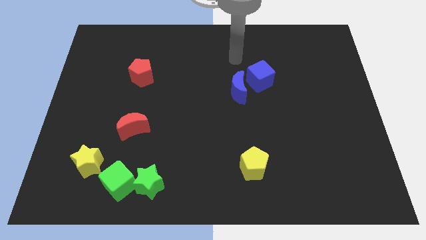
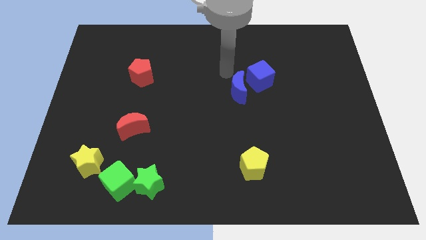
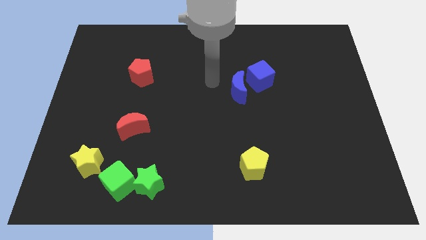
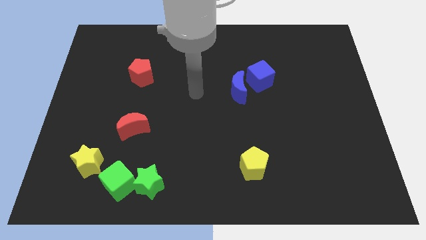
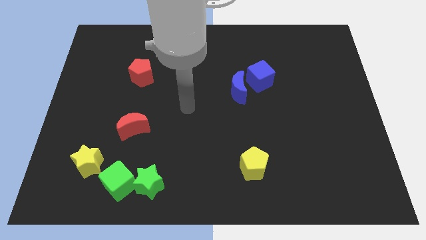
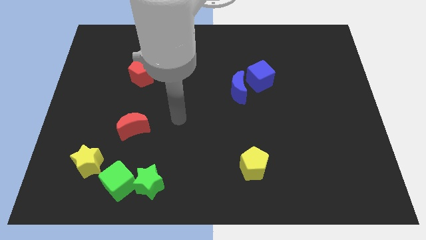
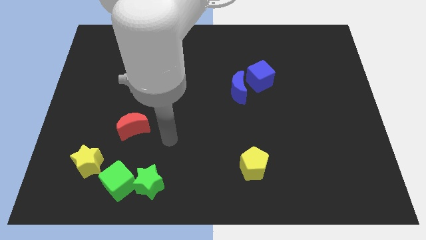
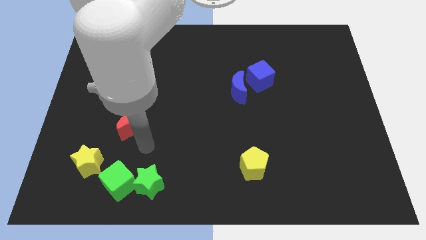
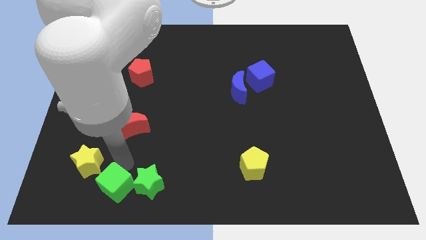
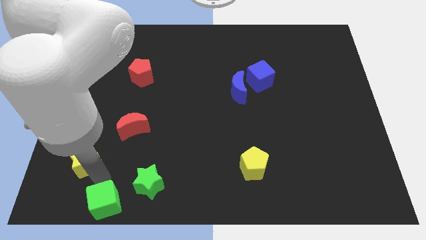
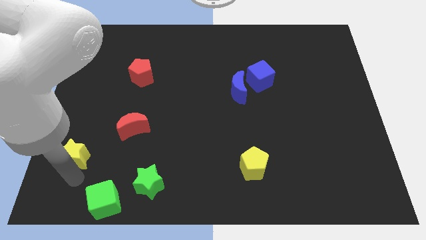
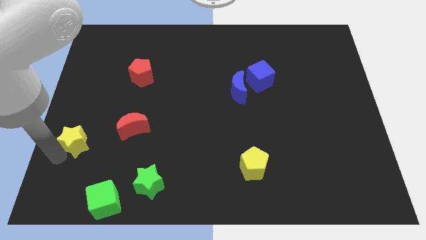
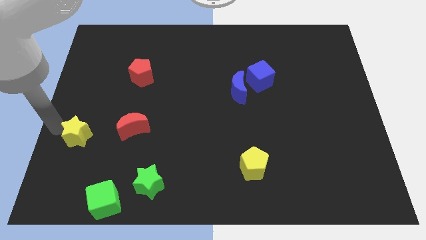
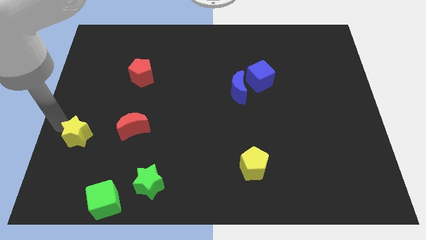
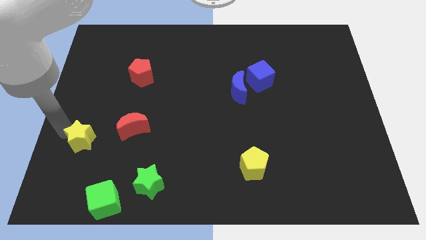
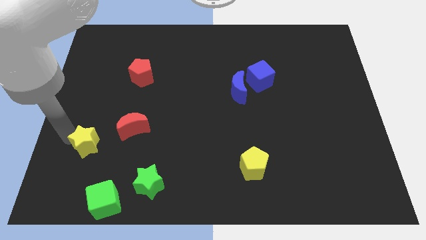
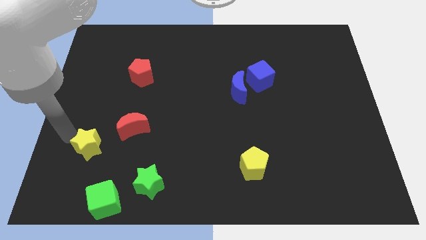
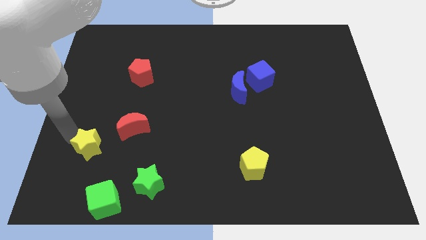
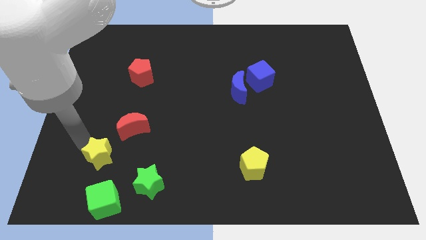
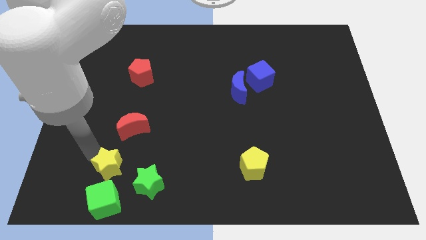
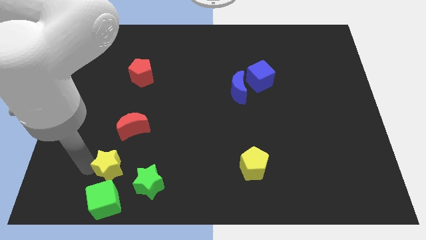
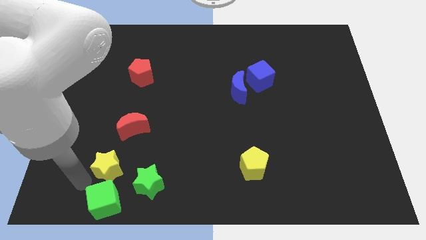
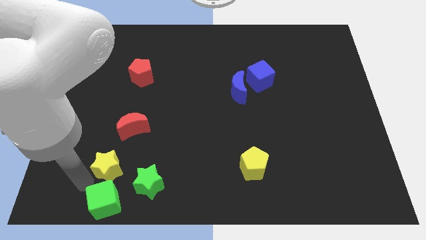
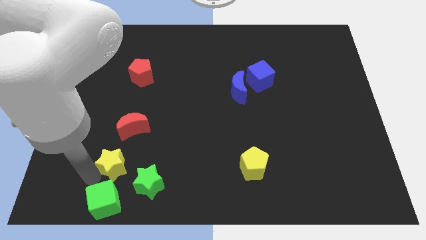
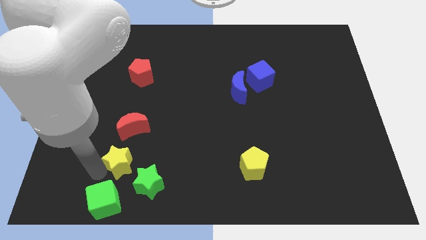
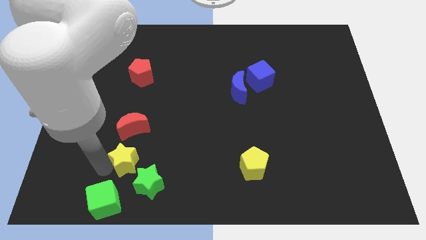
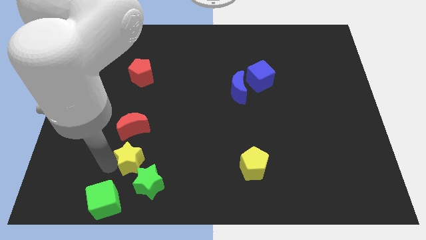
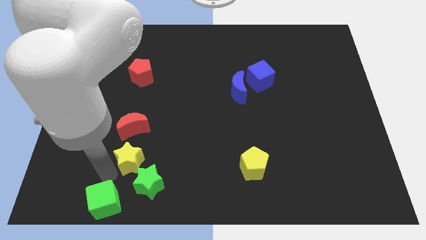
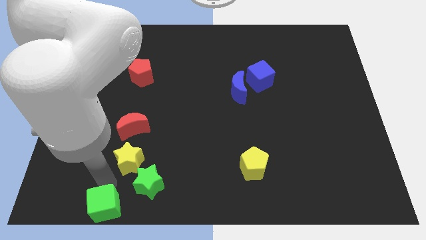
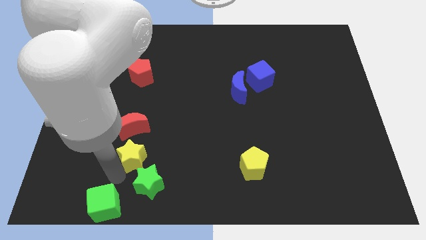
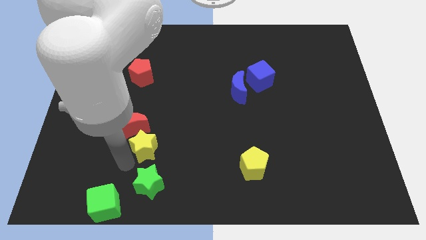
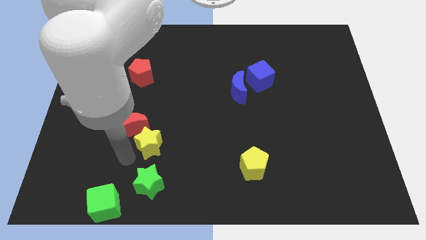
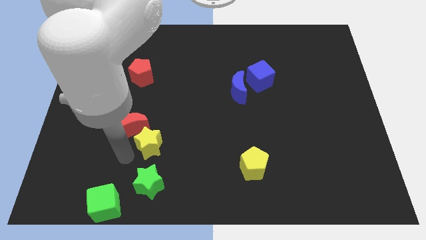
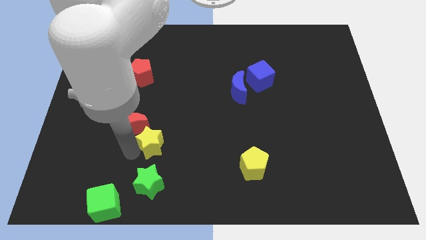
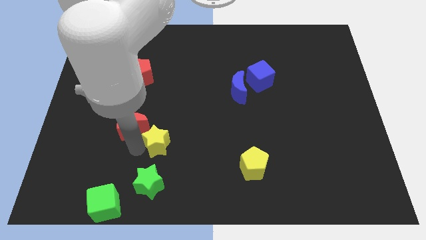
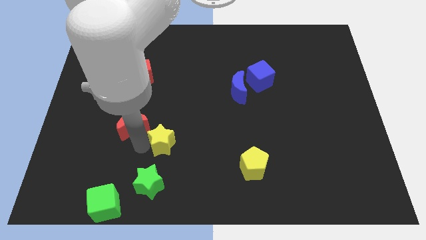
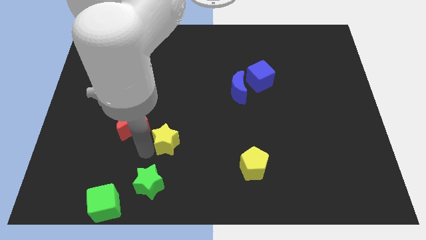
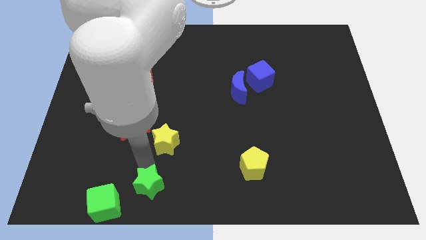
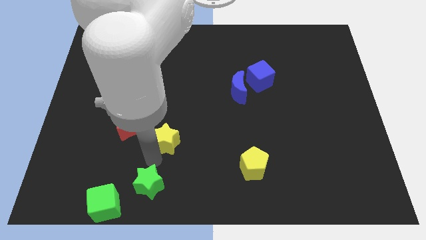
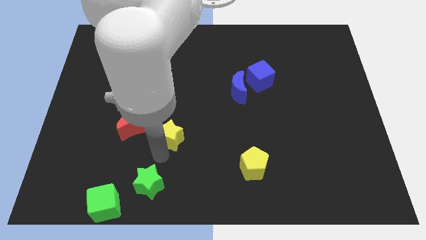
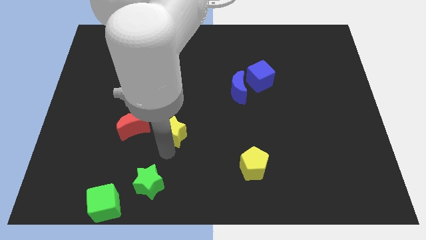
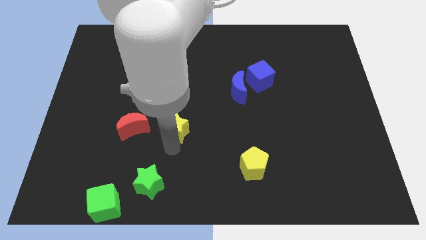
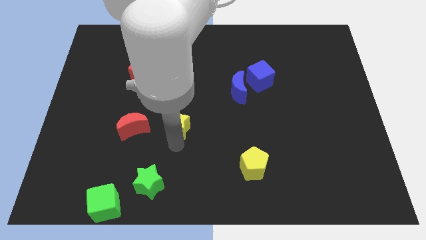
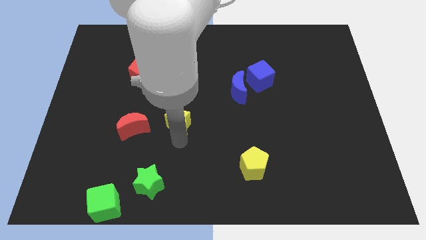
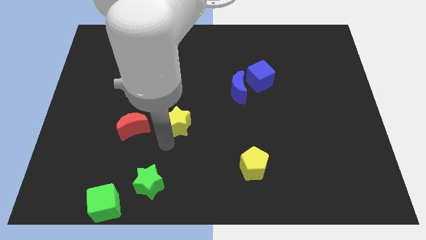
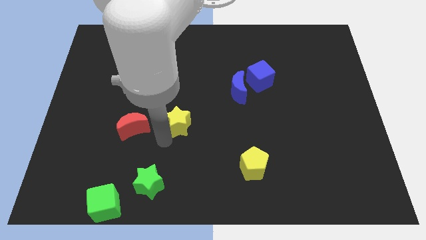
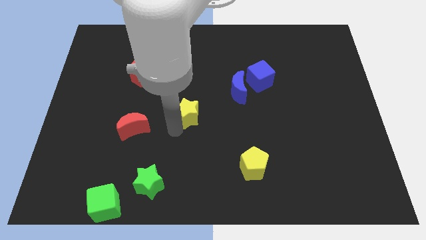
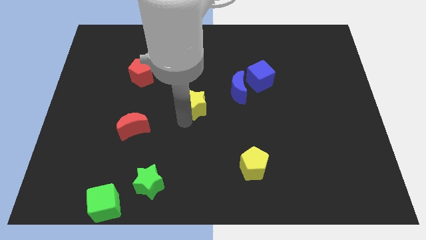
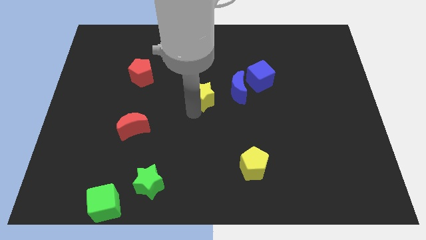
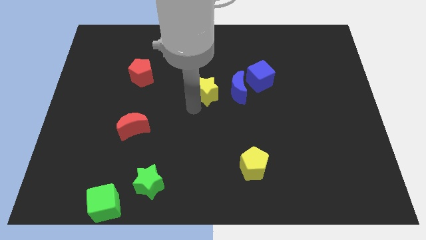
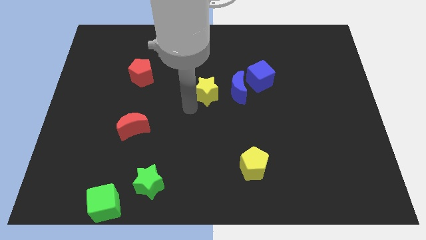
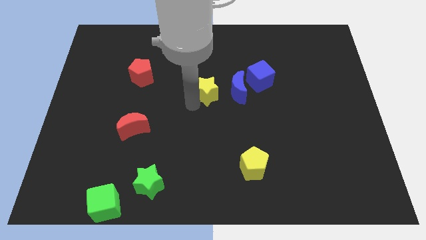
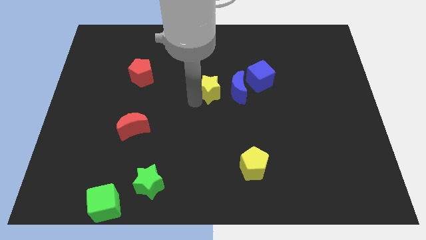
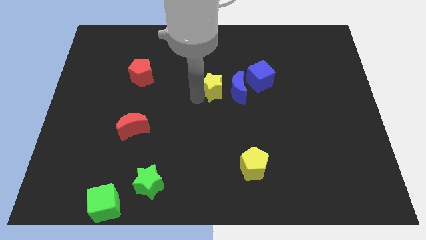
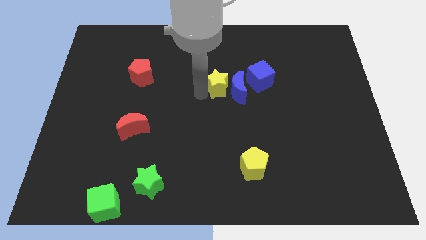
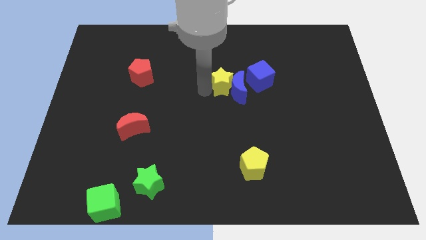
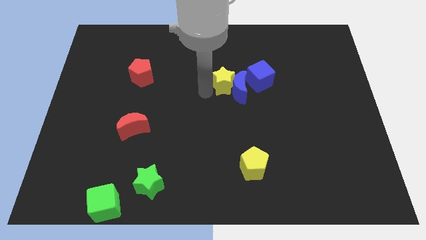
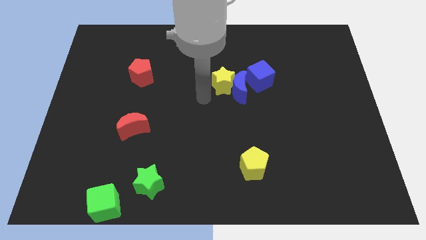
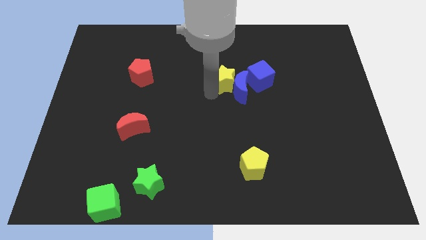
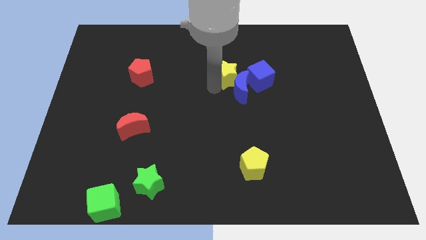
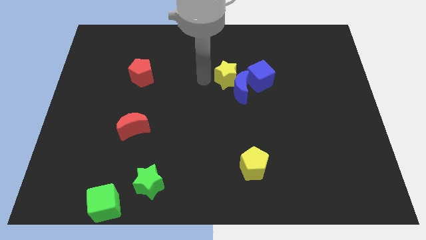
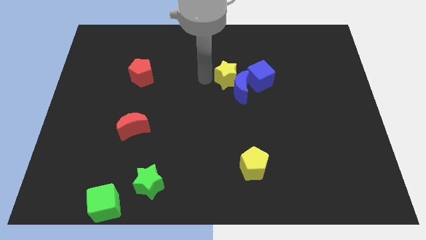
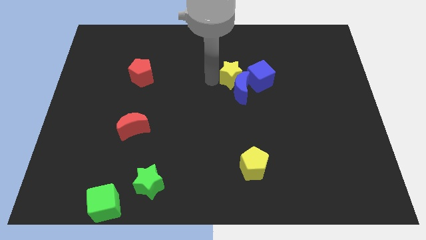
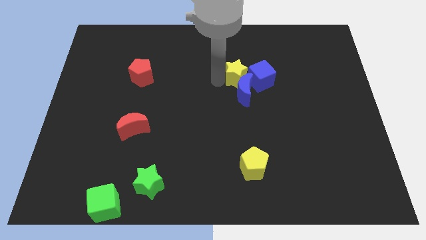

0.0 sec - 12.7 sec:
put the yellow star close to the blue cube

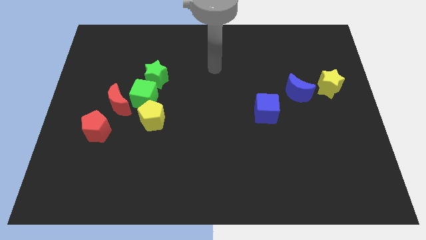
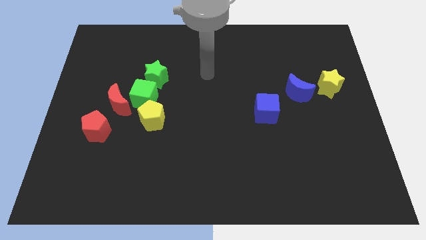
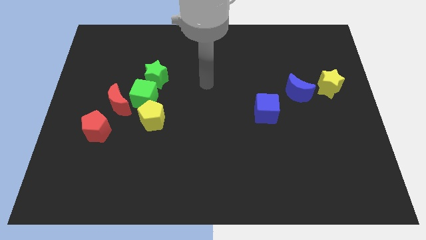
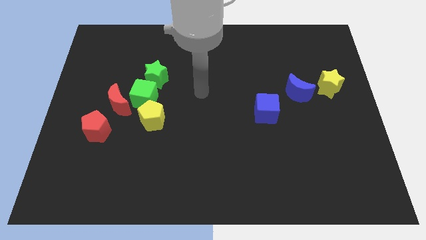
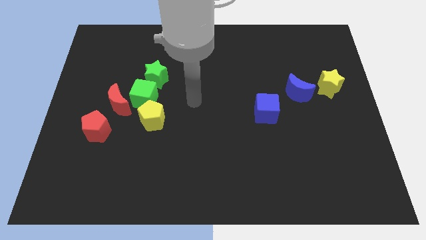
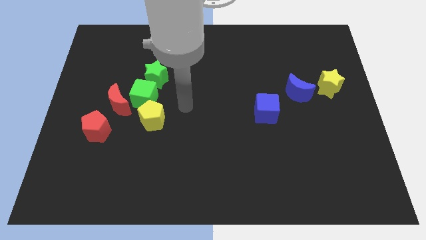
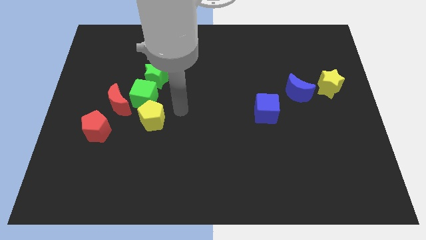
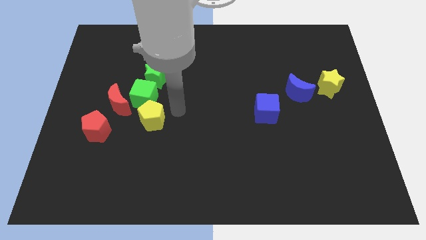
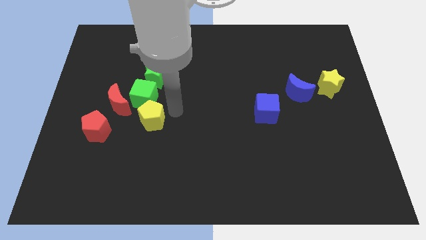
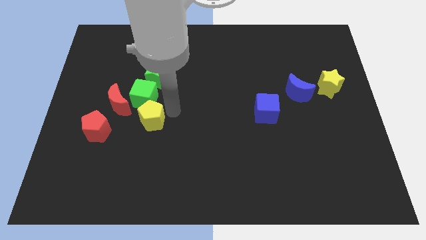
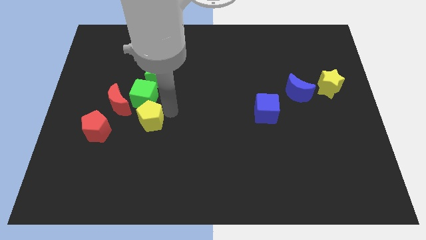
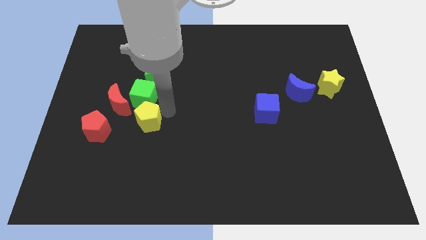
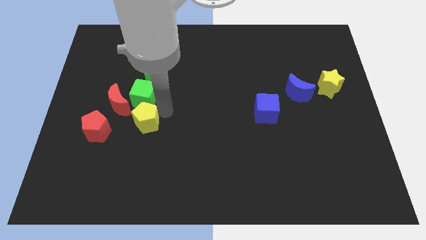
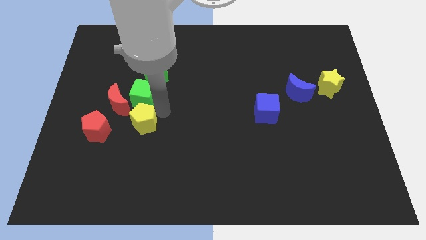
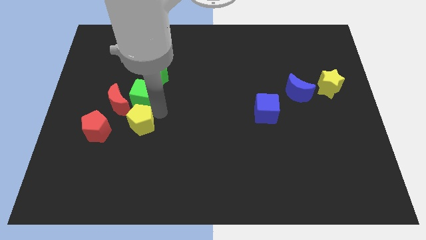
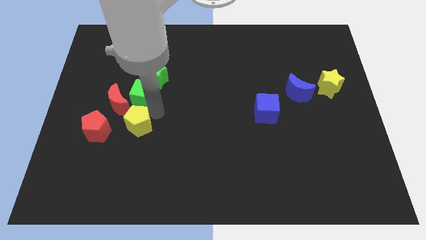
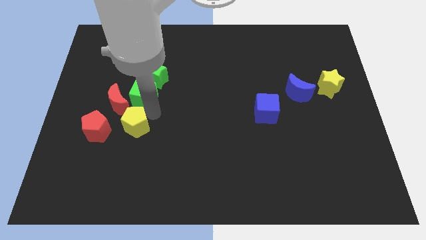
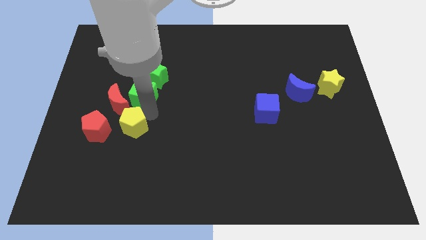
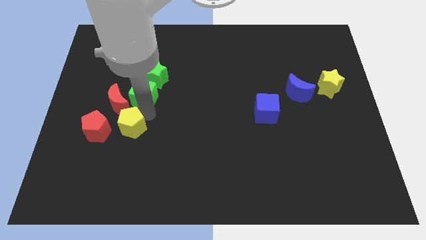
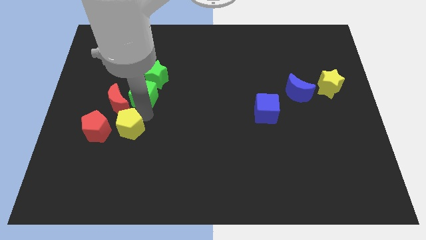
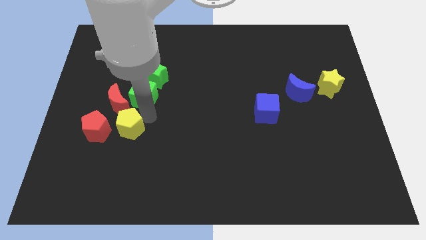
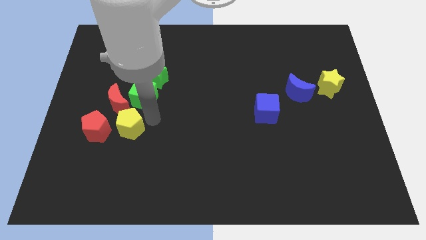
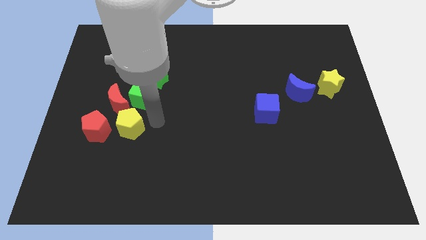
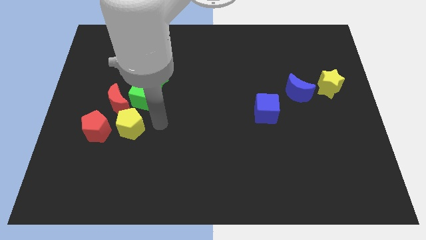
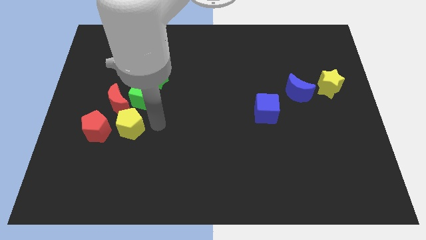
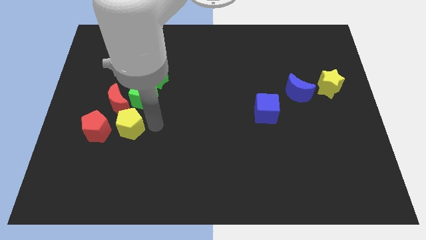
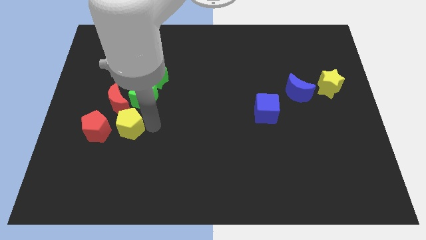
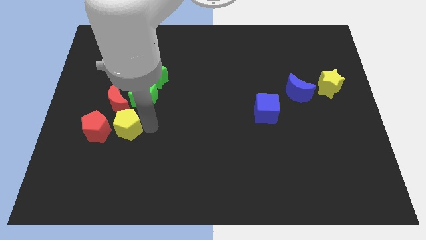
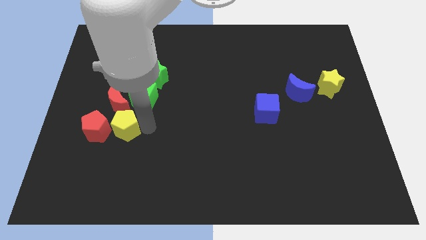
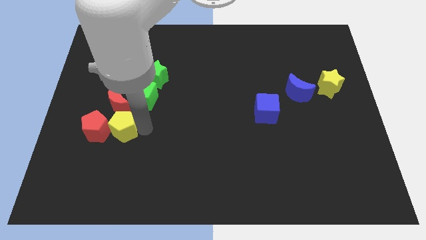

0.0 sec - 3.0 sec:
move the yellow pentagon to the red pentagon
